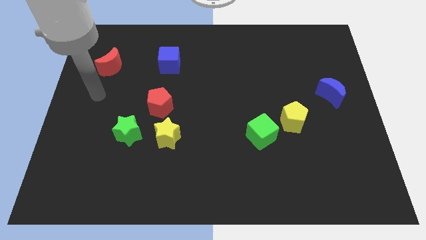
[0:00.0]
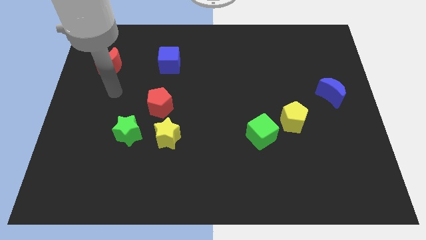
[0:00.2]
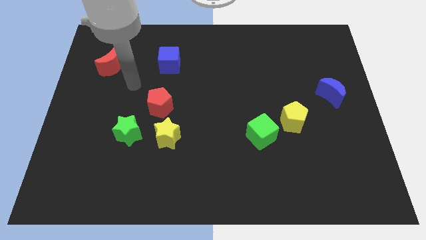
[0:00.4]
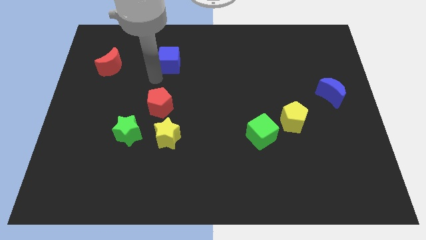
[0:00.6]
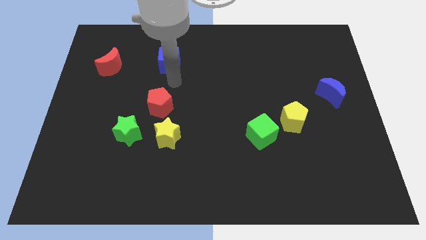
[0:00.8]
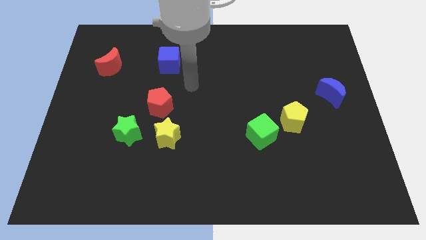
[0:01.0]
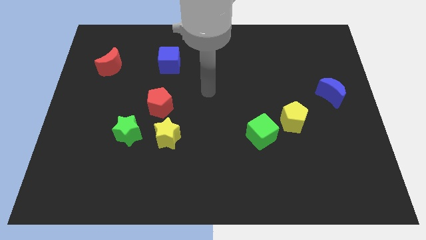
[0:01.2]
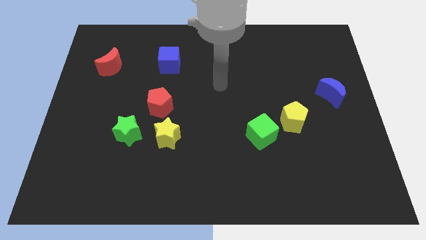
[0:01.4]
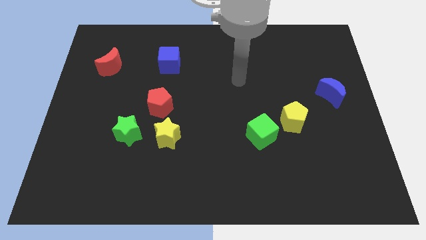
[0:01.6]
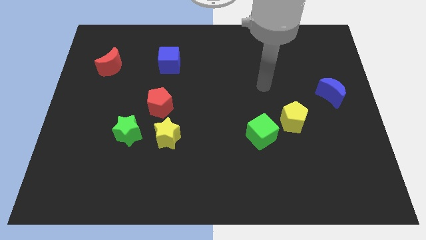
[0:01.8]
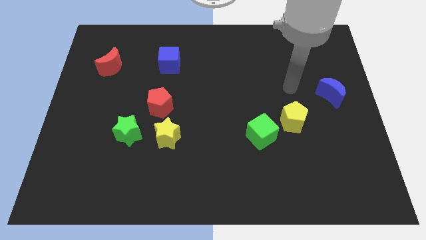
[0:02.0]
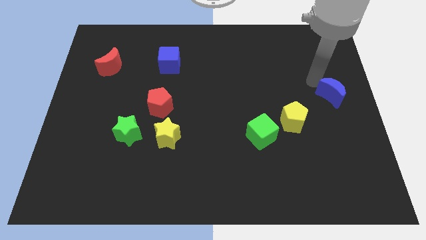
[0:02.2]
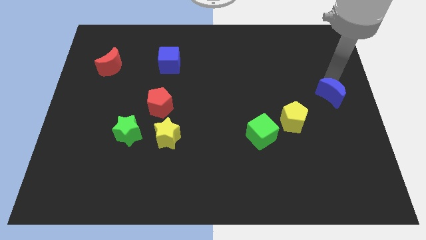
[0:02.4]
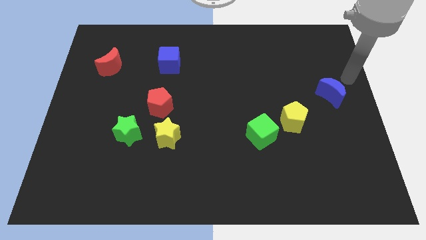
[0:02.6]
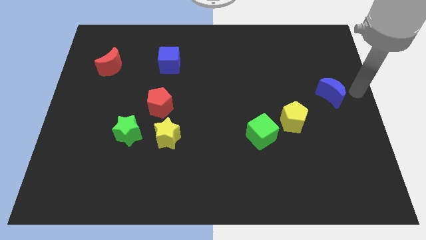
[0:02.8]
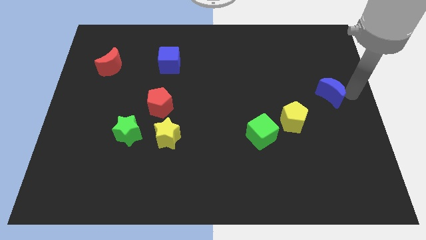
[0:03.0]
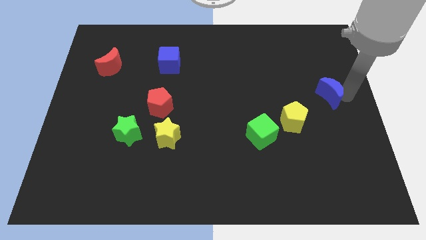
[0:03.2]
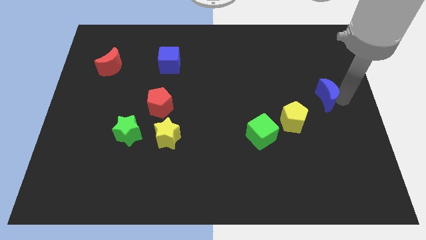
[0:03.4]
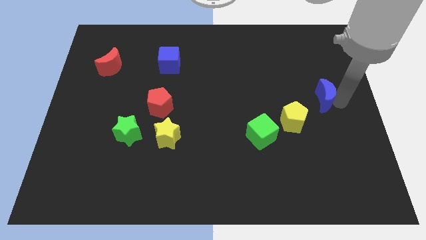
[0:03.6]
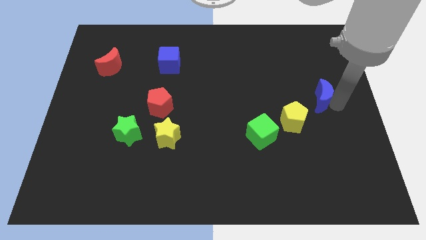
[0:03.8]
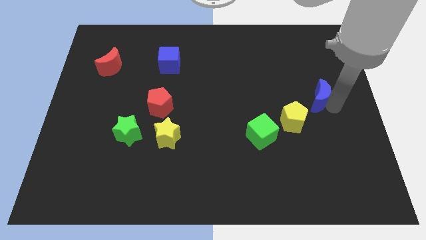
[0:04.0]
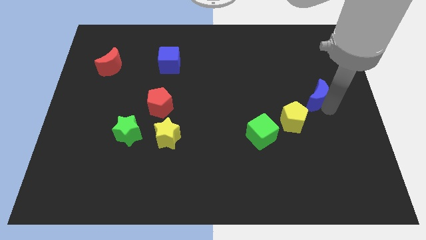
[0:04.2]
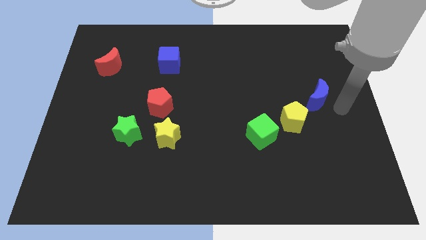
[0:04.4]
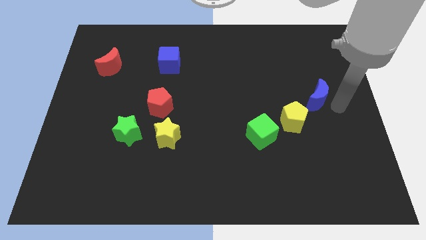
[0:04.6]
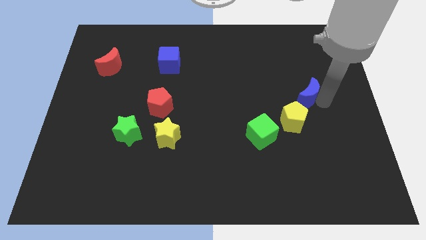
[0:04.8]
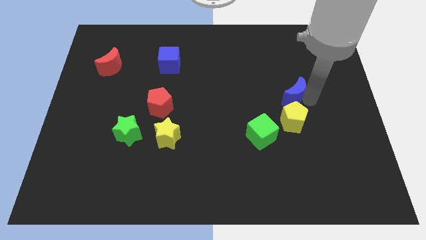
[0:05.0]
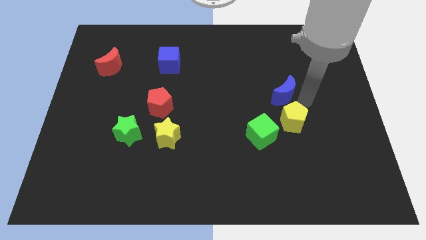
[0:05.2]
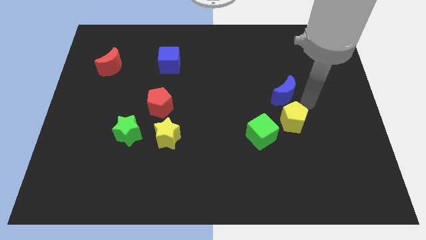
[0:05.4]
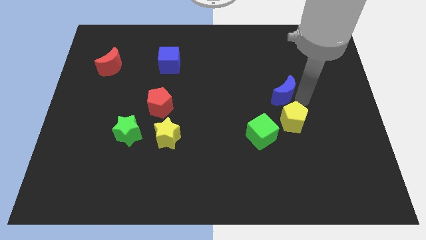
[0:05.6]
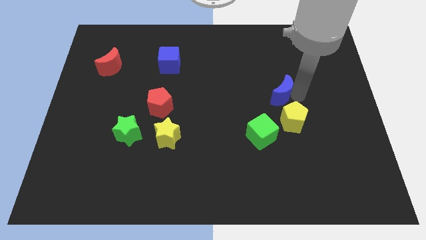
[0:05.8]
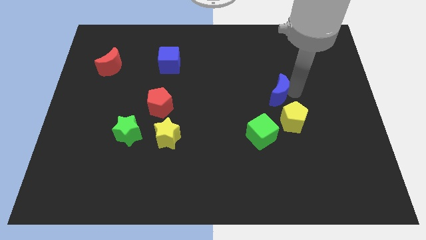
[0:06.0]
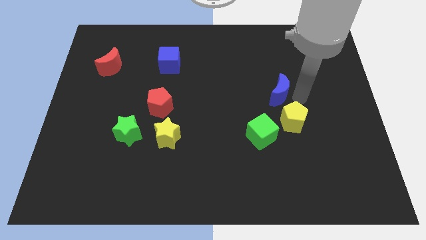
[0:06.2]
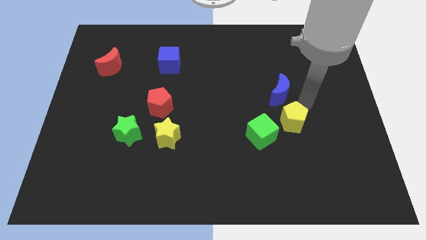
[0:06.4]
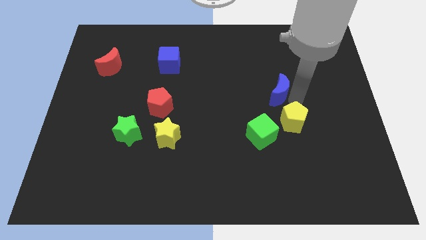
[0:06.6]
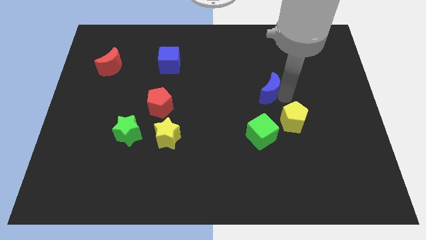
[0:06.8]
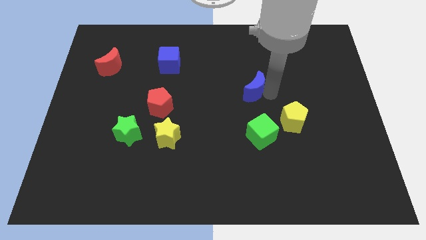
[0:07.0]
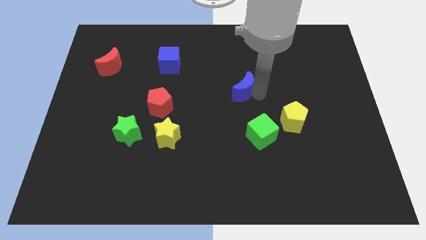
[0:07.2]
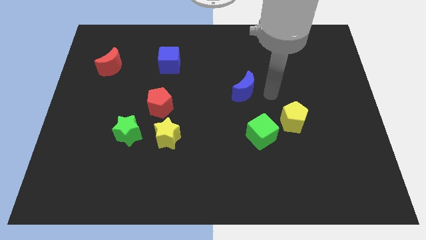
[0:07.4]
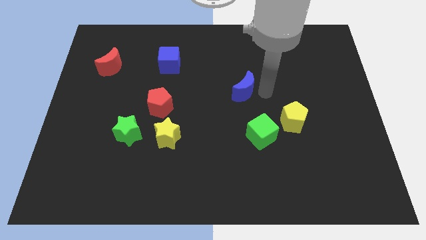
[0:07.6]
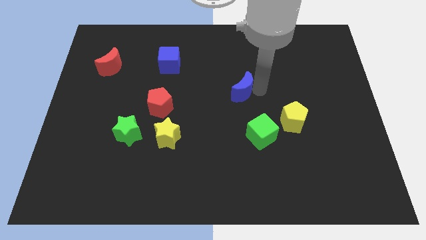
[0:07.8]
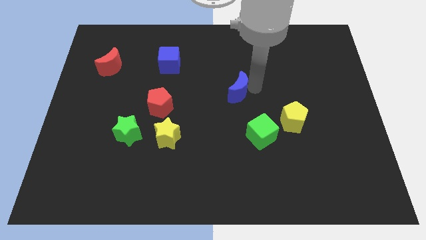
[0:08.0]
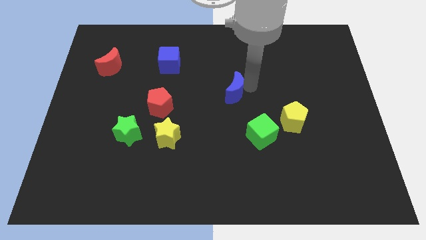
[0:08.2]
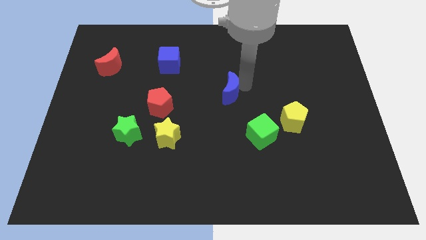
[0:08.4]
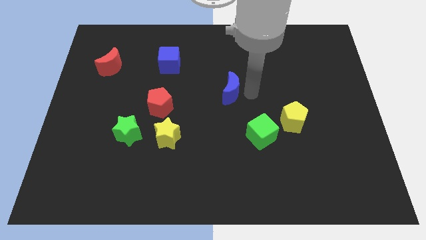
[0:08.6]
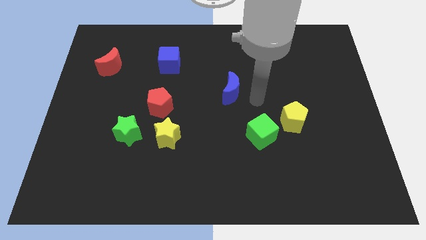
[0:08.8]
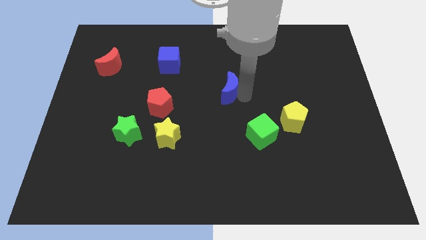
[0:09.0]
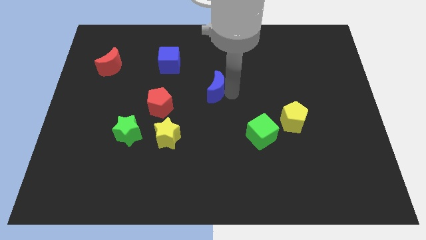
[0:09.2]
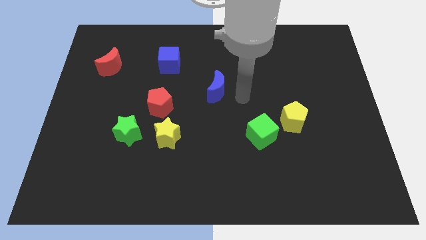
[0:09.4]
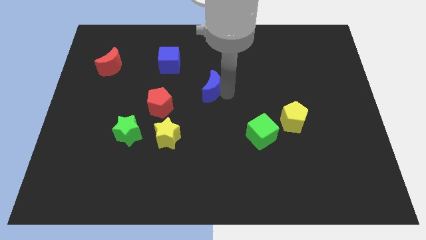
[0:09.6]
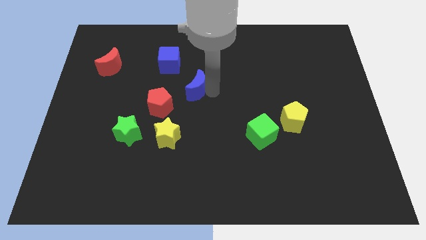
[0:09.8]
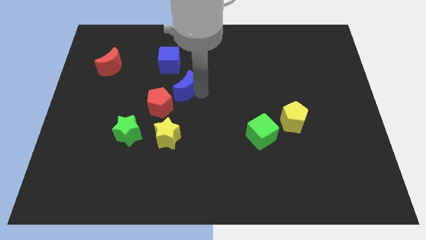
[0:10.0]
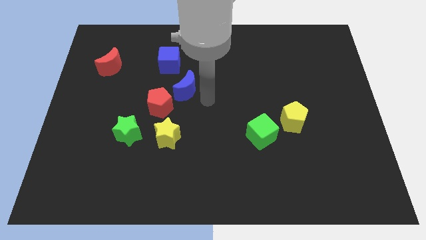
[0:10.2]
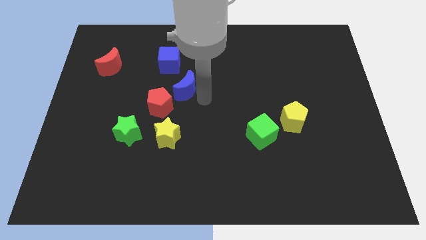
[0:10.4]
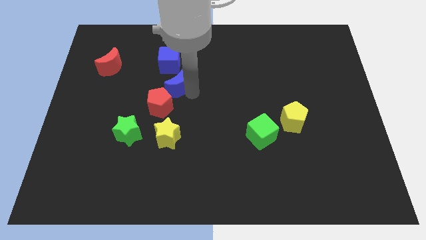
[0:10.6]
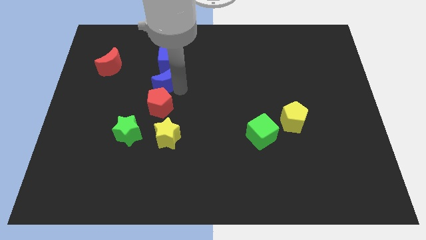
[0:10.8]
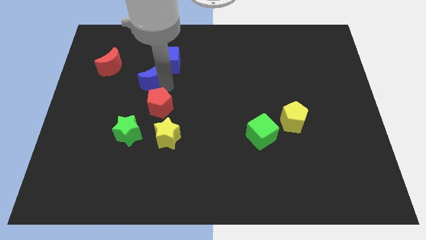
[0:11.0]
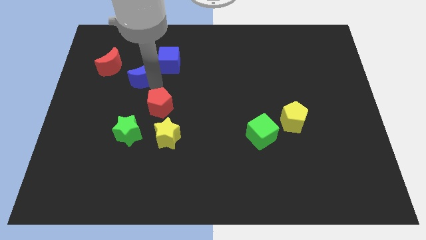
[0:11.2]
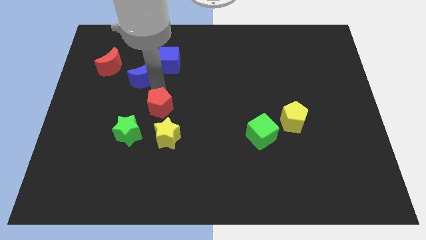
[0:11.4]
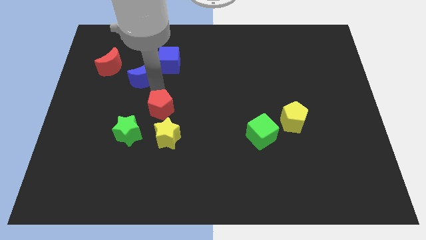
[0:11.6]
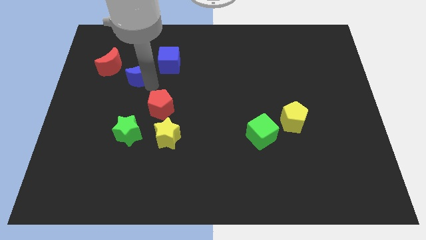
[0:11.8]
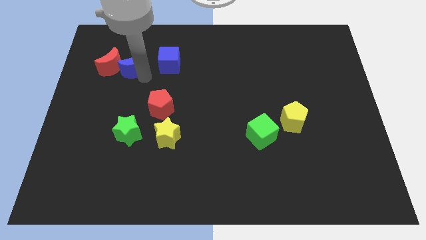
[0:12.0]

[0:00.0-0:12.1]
push the blue moon next to the red moon

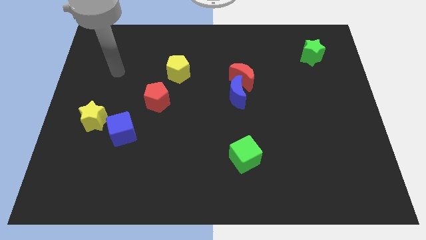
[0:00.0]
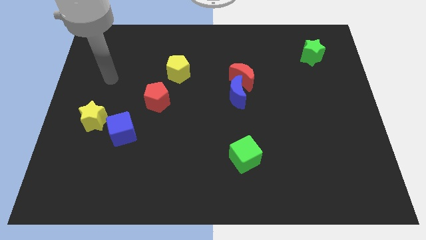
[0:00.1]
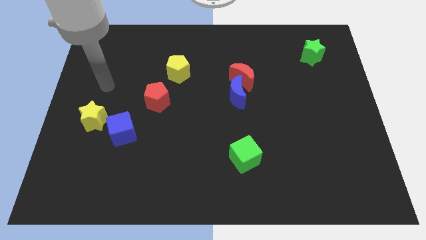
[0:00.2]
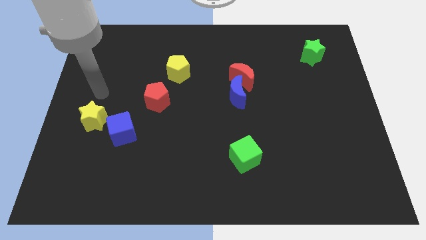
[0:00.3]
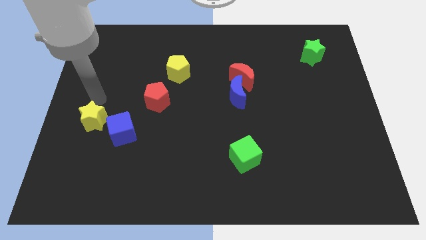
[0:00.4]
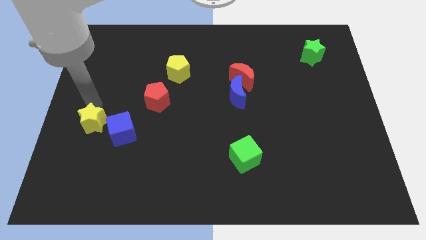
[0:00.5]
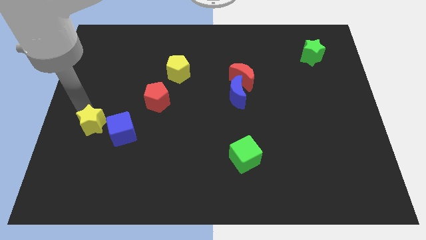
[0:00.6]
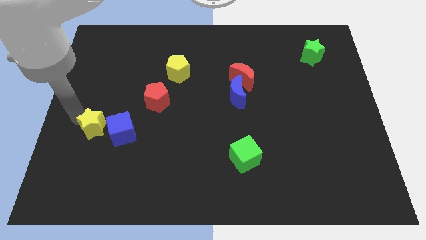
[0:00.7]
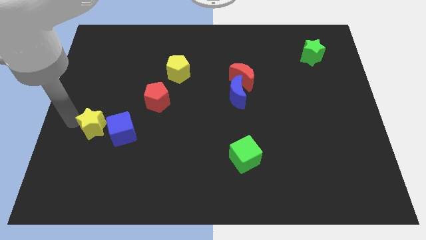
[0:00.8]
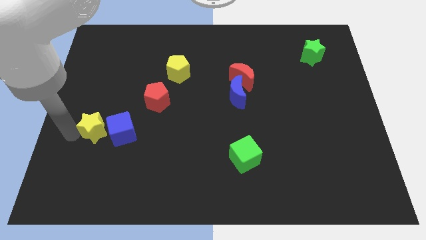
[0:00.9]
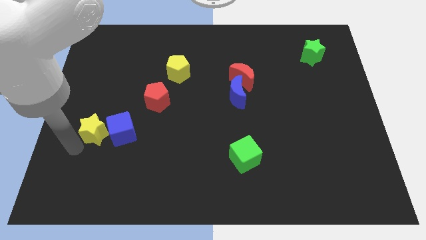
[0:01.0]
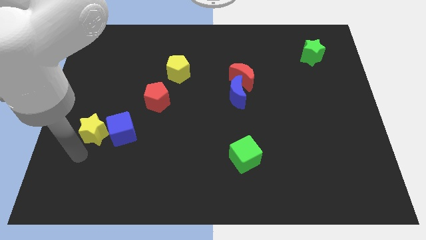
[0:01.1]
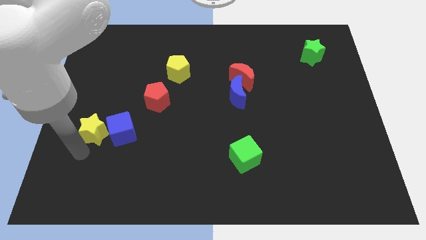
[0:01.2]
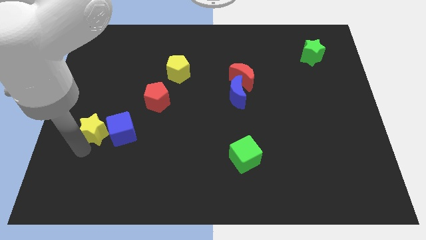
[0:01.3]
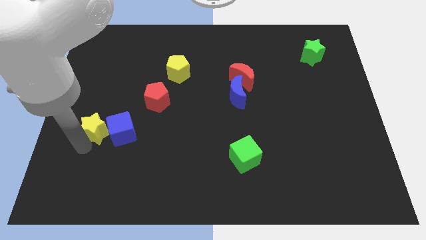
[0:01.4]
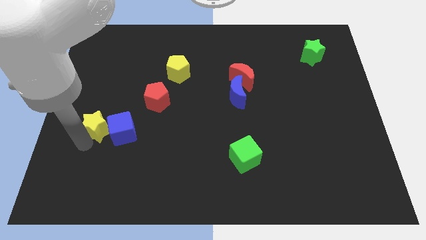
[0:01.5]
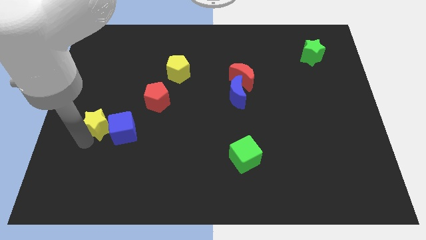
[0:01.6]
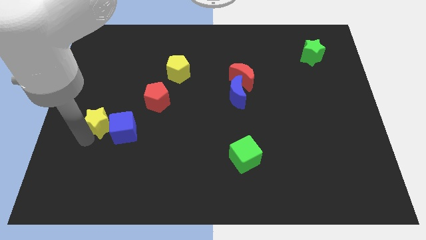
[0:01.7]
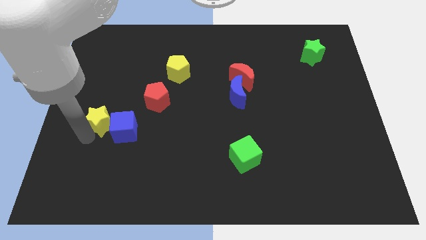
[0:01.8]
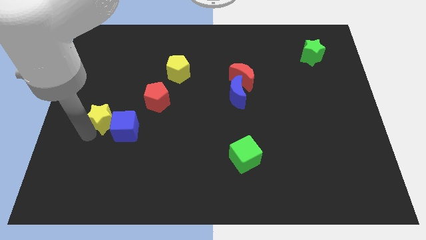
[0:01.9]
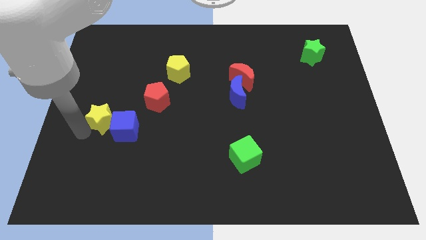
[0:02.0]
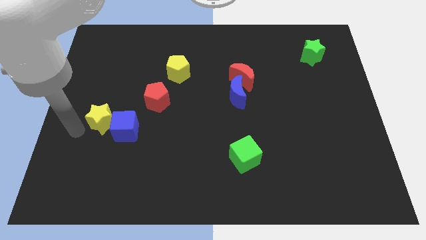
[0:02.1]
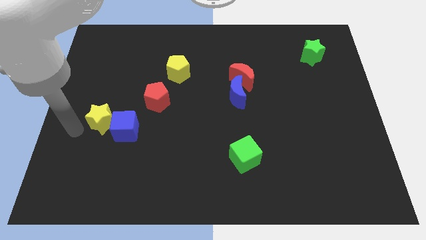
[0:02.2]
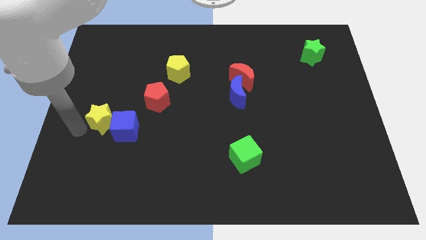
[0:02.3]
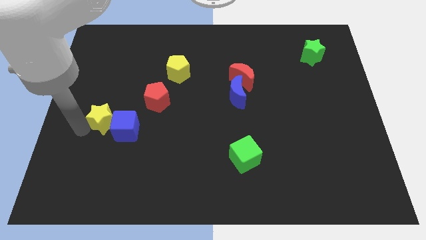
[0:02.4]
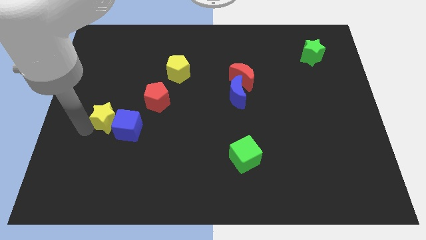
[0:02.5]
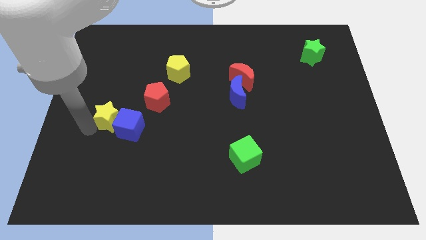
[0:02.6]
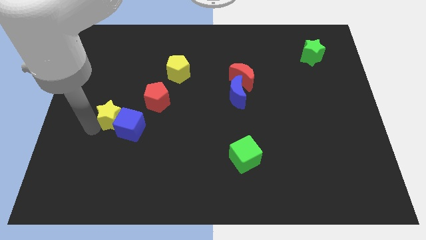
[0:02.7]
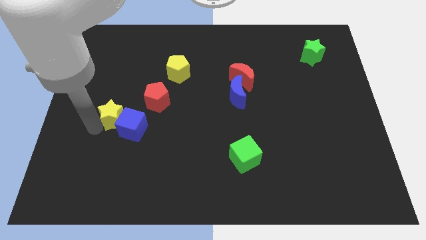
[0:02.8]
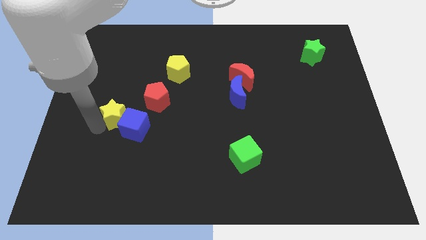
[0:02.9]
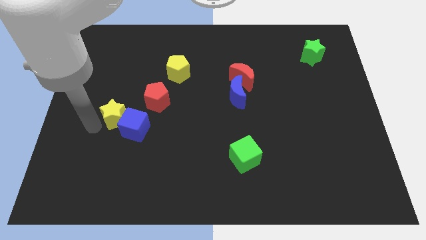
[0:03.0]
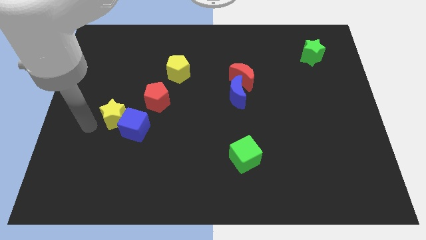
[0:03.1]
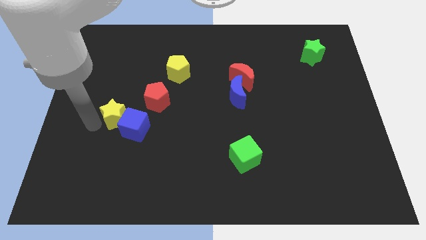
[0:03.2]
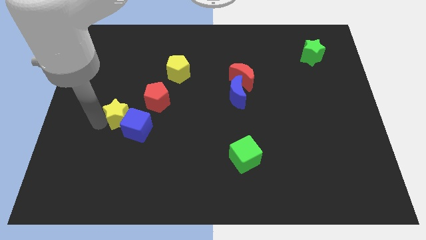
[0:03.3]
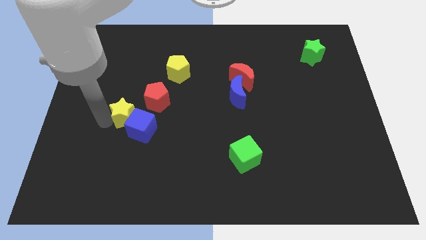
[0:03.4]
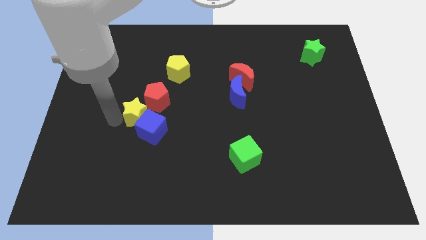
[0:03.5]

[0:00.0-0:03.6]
put the yellow star to the red pentagon
